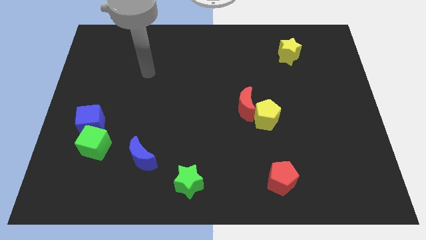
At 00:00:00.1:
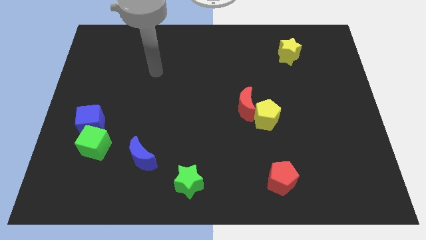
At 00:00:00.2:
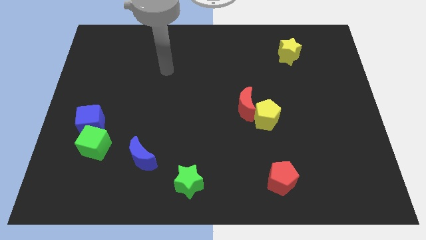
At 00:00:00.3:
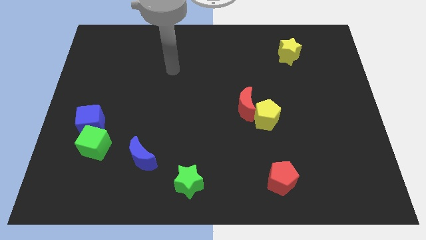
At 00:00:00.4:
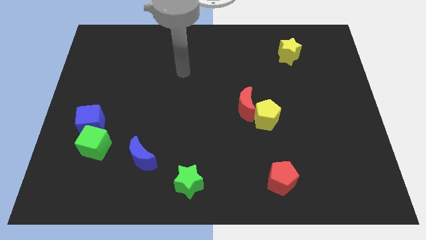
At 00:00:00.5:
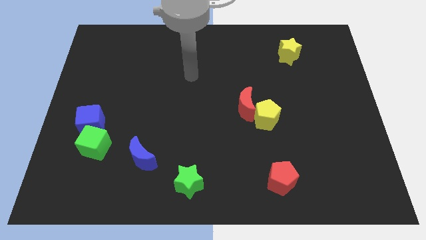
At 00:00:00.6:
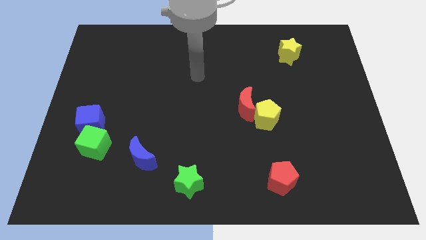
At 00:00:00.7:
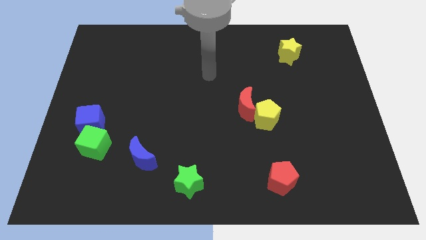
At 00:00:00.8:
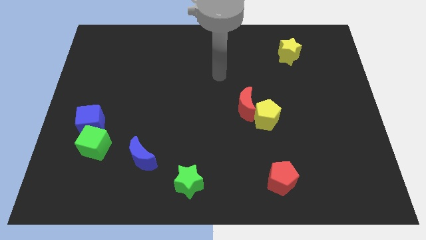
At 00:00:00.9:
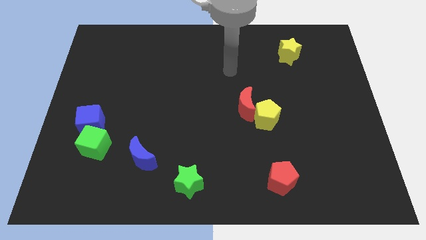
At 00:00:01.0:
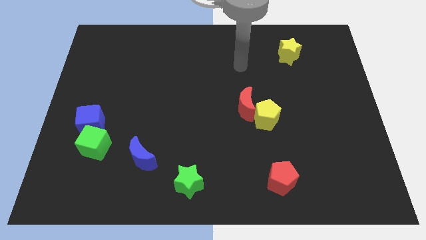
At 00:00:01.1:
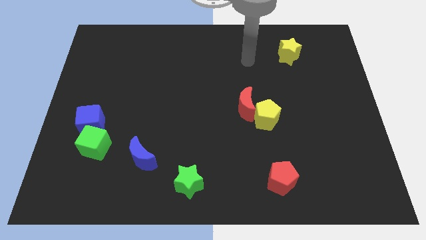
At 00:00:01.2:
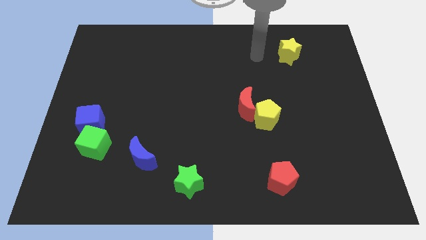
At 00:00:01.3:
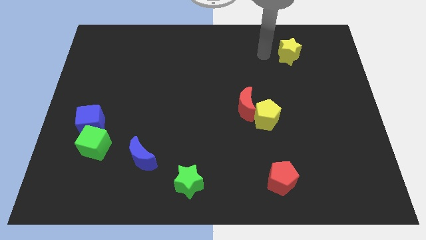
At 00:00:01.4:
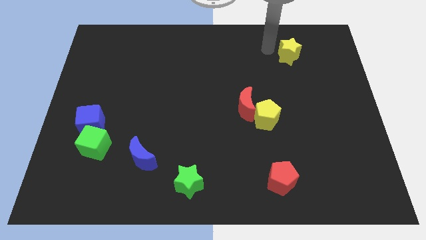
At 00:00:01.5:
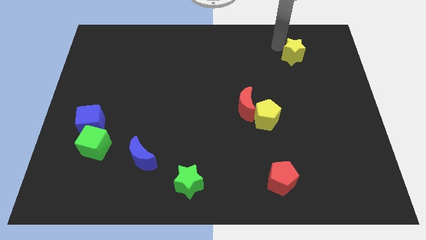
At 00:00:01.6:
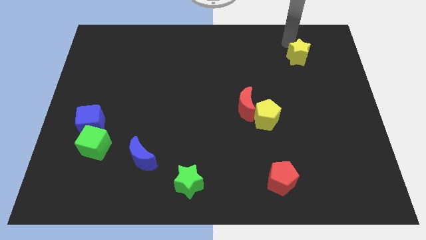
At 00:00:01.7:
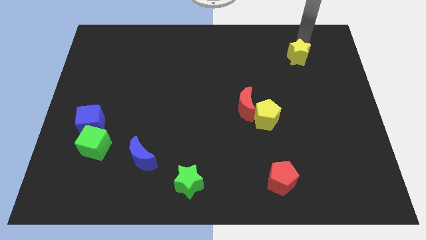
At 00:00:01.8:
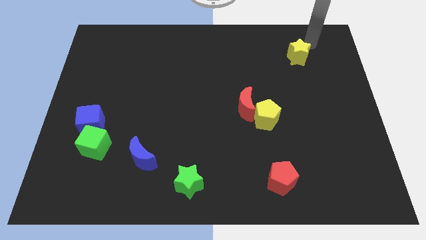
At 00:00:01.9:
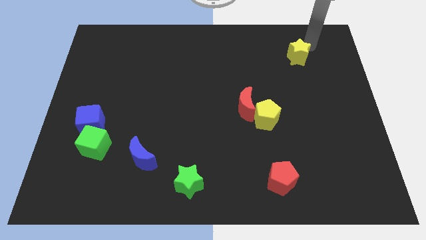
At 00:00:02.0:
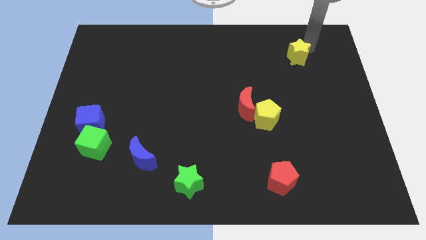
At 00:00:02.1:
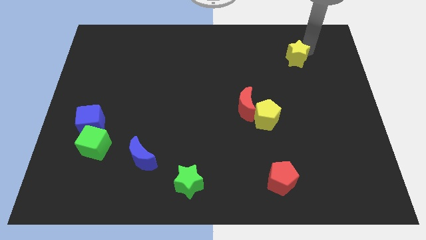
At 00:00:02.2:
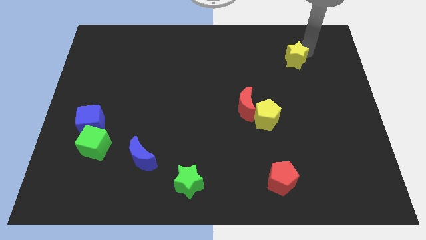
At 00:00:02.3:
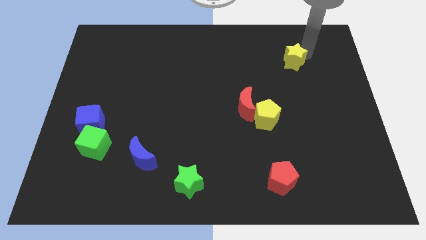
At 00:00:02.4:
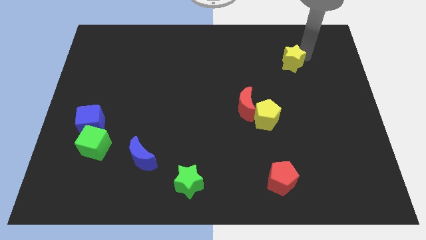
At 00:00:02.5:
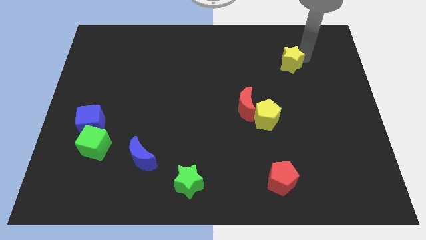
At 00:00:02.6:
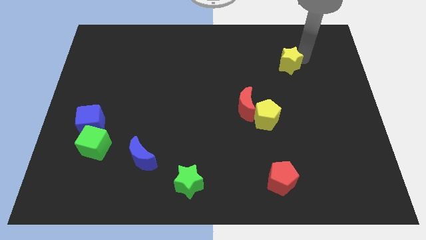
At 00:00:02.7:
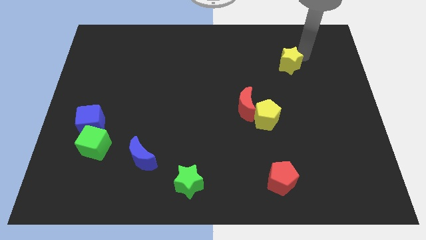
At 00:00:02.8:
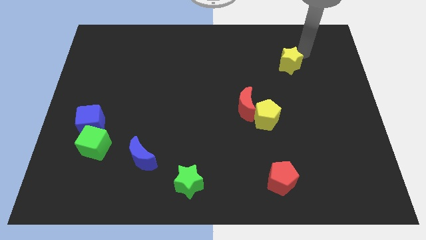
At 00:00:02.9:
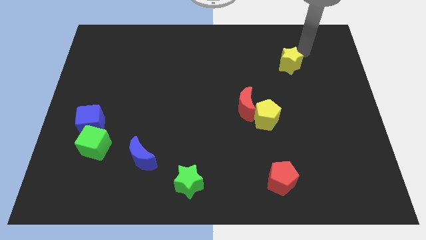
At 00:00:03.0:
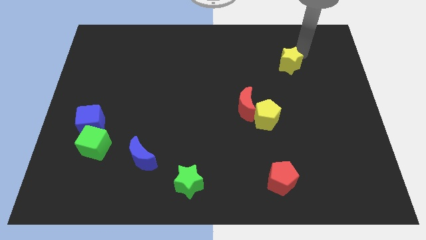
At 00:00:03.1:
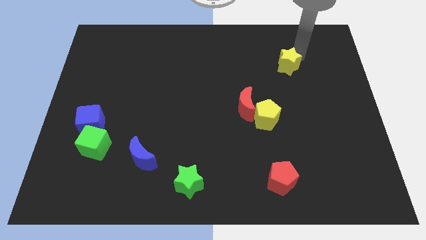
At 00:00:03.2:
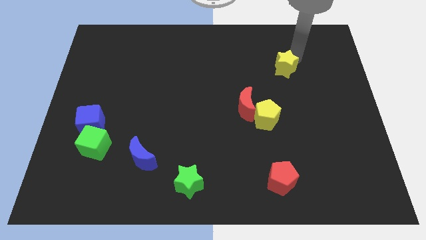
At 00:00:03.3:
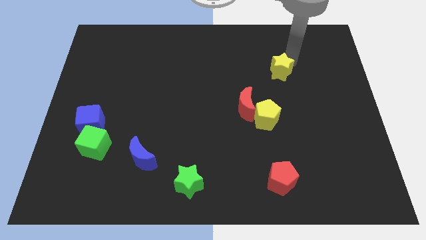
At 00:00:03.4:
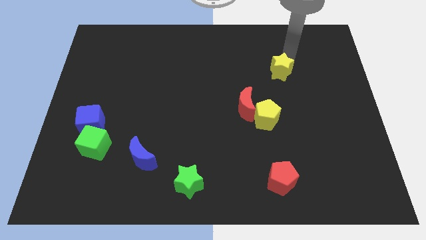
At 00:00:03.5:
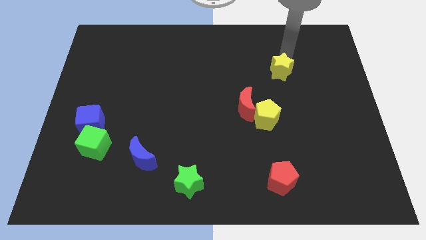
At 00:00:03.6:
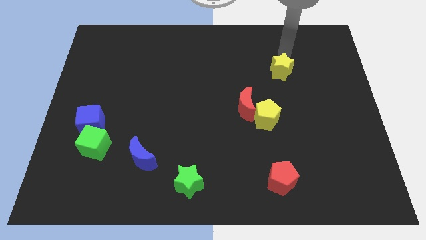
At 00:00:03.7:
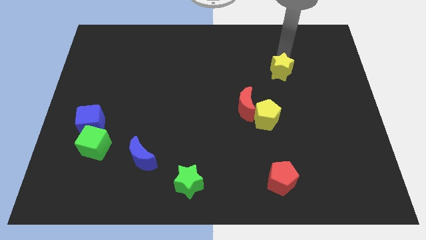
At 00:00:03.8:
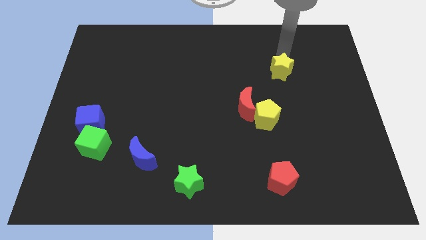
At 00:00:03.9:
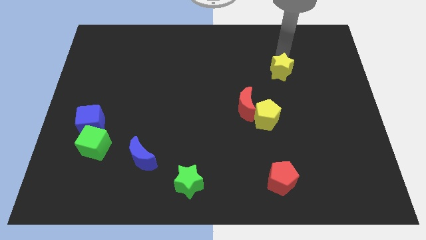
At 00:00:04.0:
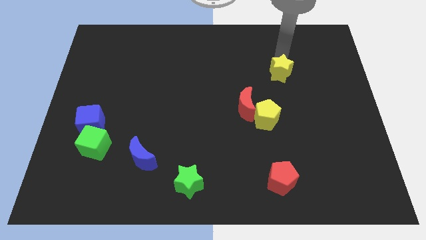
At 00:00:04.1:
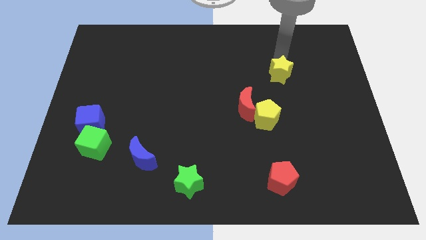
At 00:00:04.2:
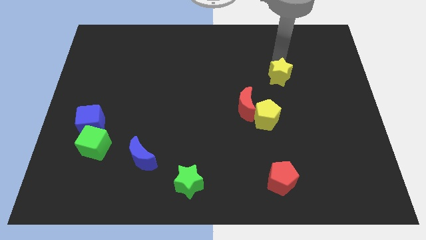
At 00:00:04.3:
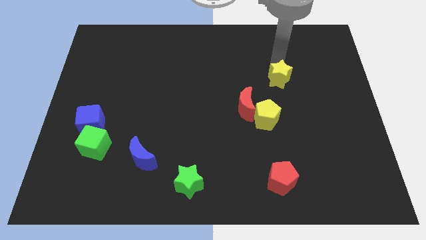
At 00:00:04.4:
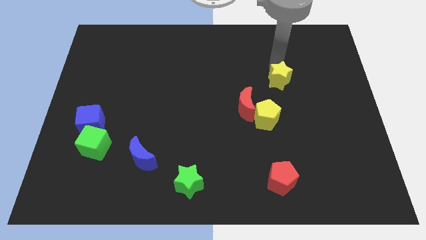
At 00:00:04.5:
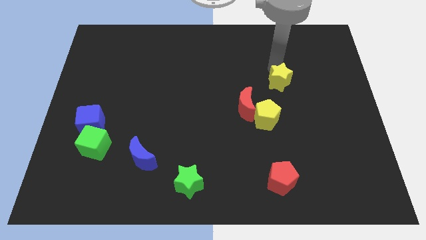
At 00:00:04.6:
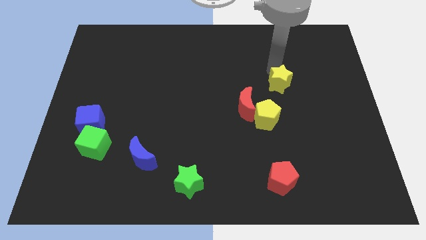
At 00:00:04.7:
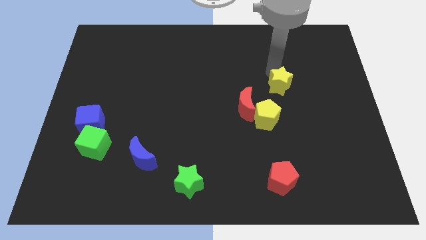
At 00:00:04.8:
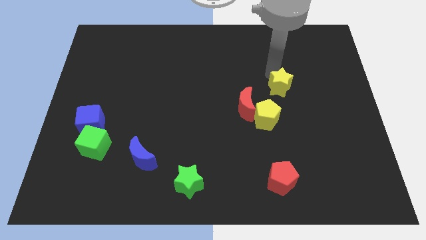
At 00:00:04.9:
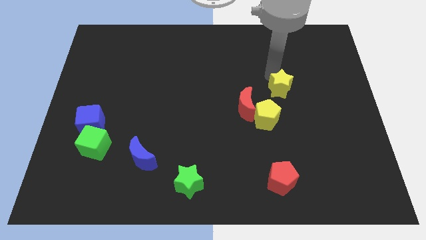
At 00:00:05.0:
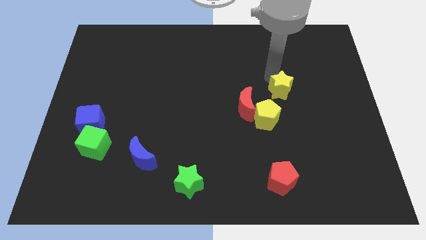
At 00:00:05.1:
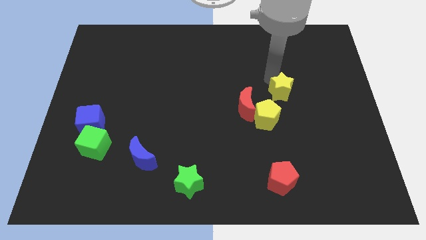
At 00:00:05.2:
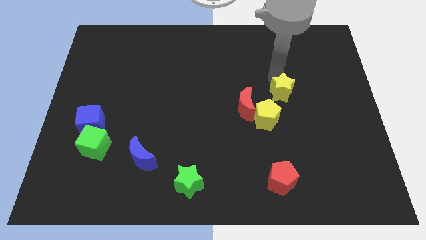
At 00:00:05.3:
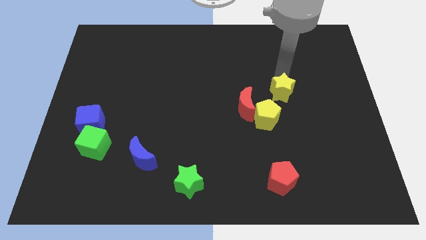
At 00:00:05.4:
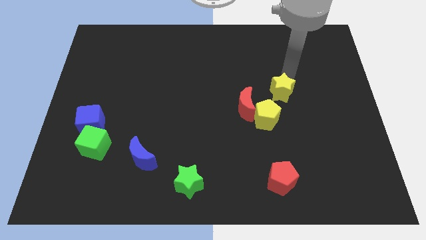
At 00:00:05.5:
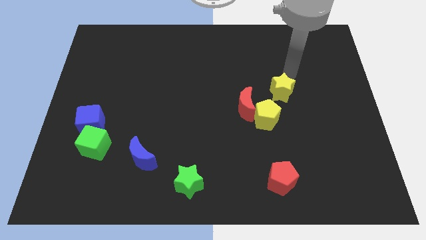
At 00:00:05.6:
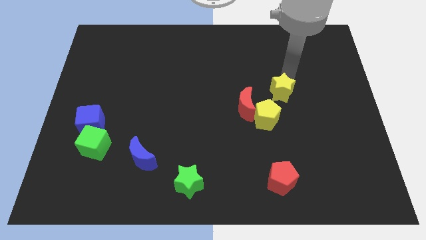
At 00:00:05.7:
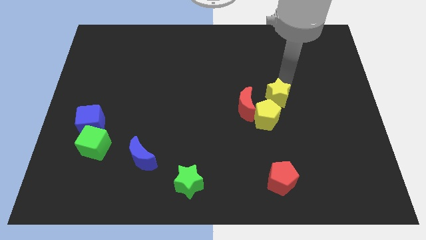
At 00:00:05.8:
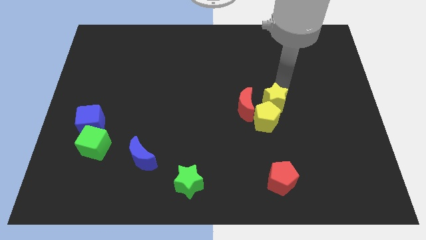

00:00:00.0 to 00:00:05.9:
move the yellow star next to the yellow pentagon

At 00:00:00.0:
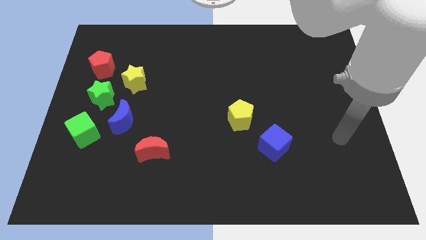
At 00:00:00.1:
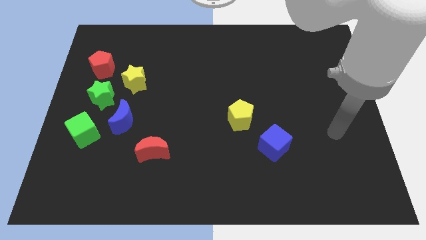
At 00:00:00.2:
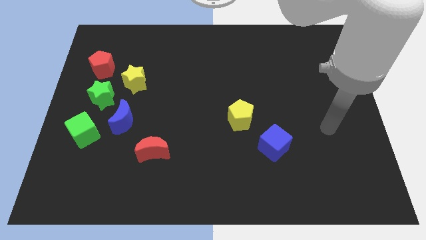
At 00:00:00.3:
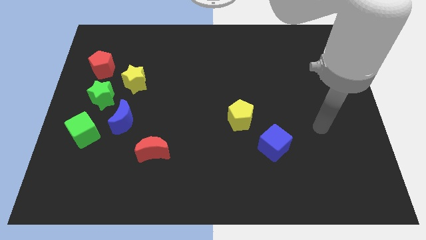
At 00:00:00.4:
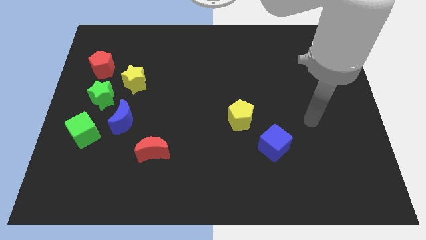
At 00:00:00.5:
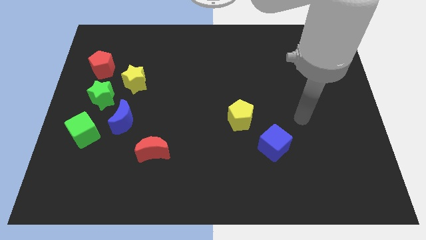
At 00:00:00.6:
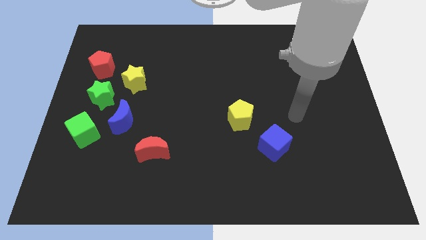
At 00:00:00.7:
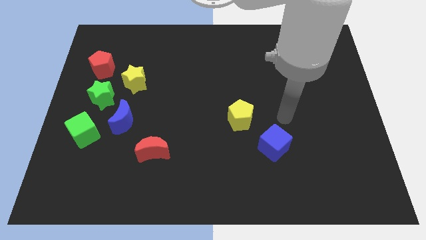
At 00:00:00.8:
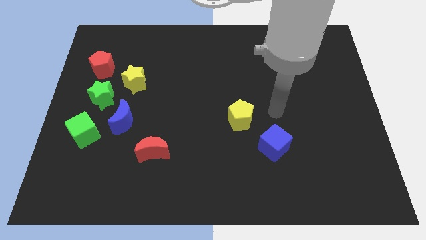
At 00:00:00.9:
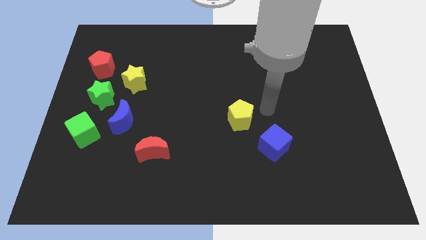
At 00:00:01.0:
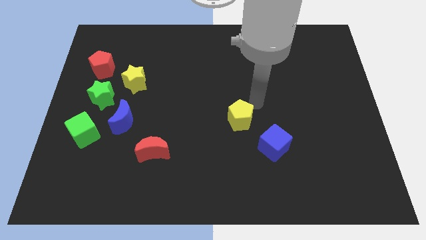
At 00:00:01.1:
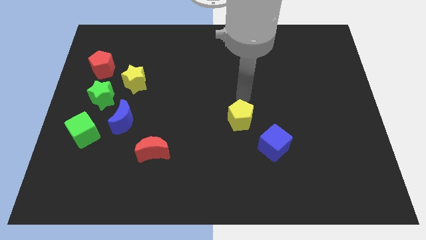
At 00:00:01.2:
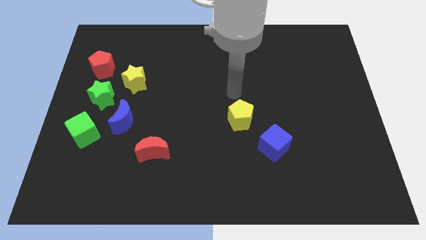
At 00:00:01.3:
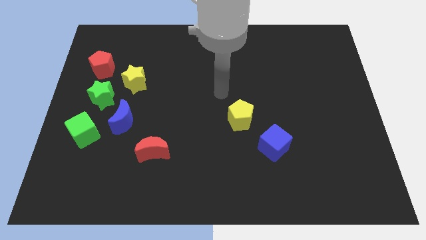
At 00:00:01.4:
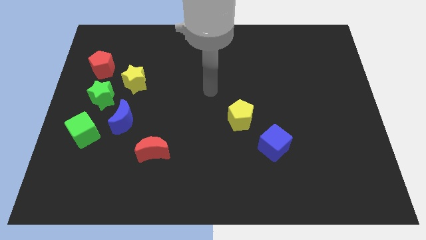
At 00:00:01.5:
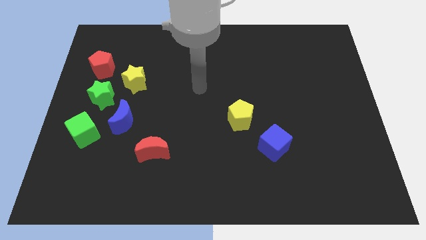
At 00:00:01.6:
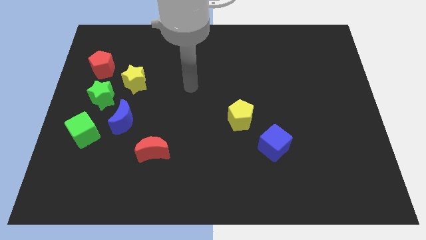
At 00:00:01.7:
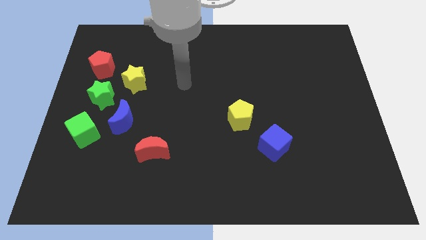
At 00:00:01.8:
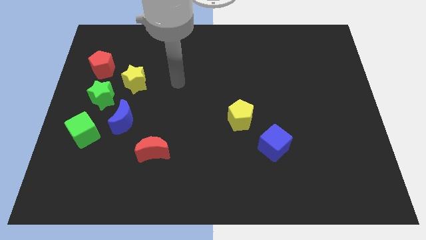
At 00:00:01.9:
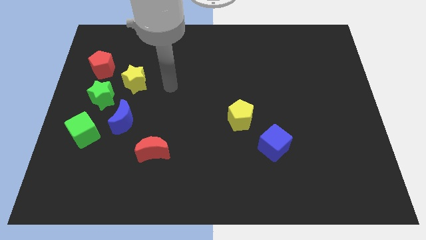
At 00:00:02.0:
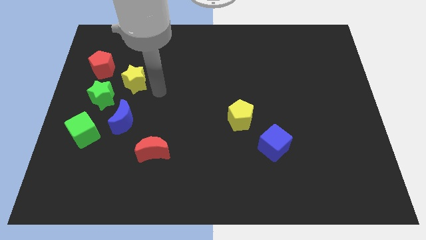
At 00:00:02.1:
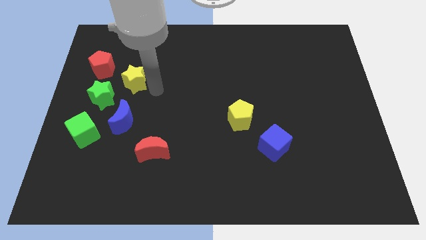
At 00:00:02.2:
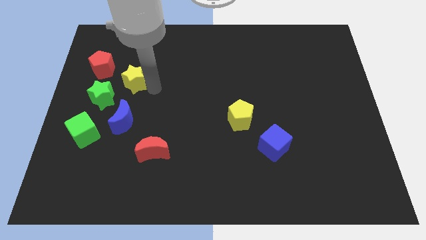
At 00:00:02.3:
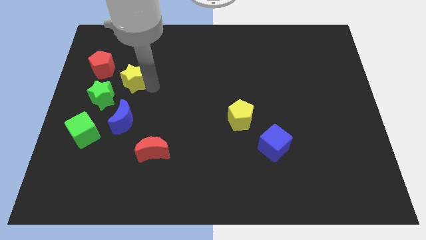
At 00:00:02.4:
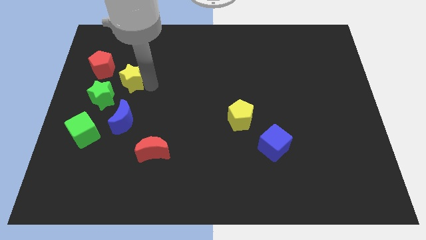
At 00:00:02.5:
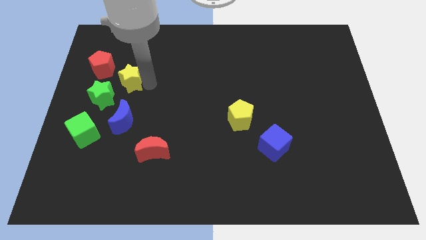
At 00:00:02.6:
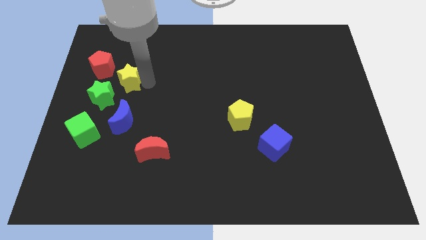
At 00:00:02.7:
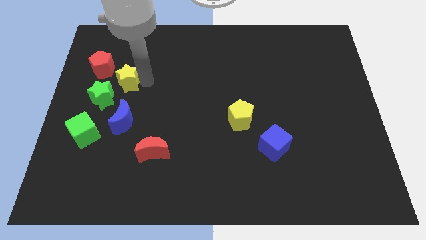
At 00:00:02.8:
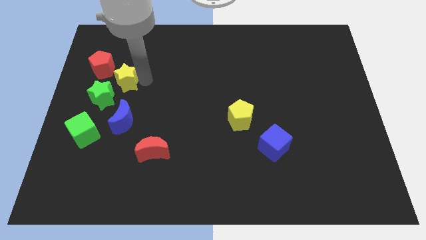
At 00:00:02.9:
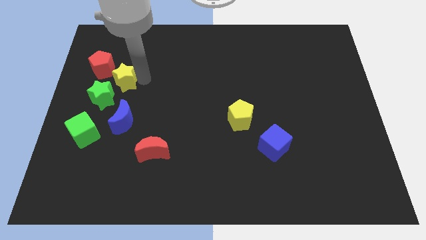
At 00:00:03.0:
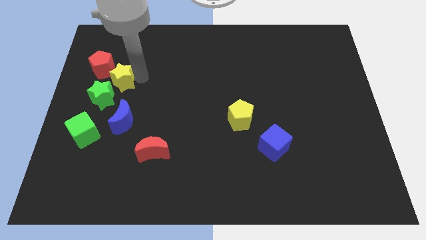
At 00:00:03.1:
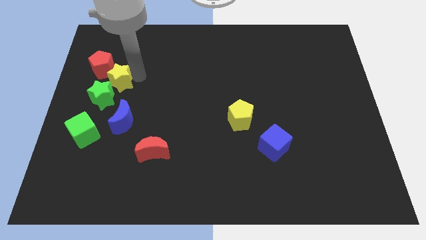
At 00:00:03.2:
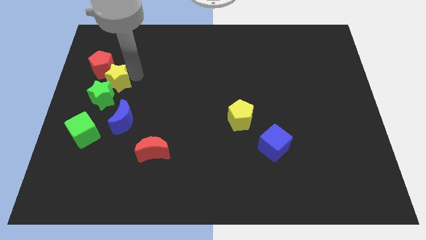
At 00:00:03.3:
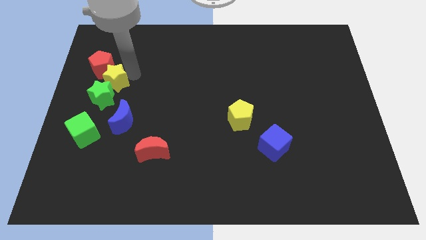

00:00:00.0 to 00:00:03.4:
move the yellow star towards the red pentagon
